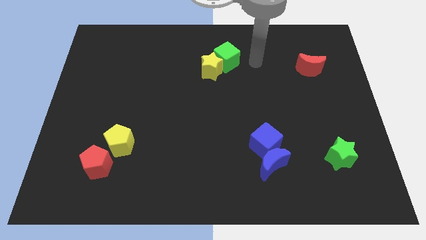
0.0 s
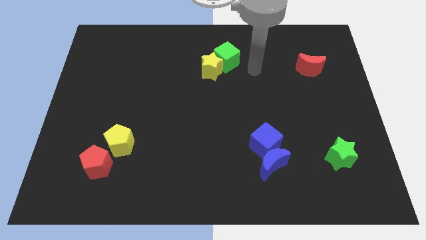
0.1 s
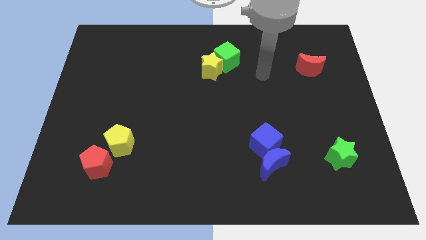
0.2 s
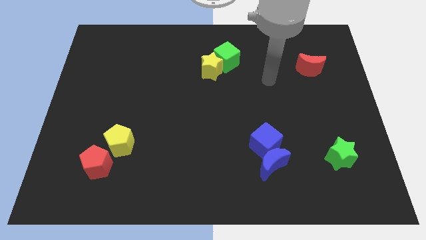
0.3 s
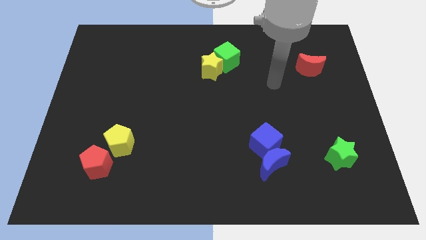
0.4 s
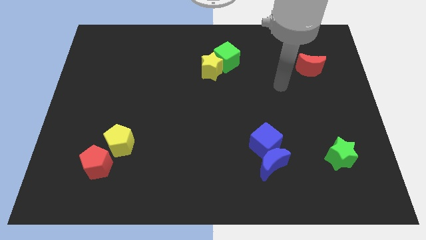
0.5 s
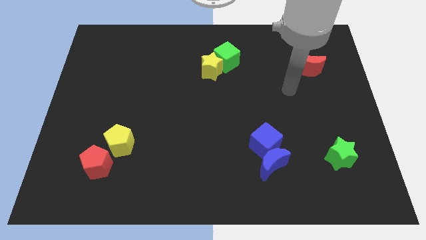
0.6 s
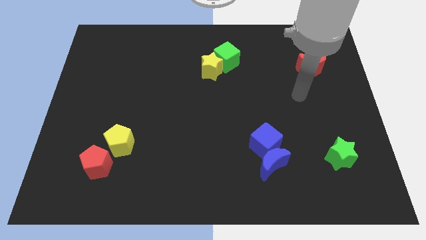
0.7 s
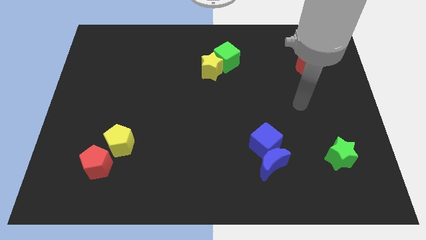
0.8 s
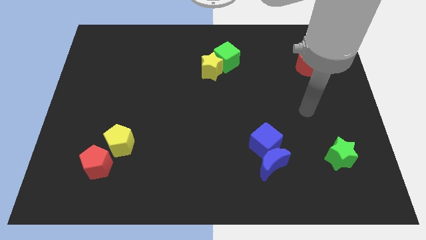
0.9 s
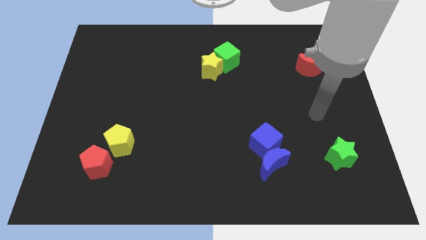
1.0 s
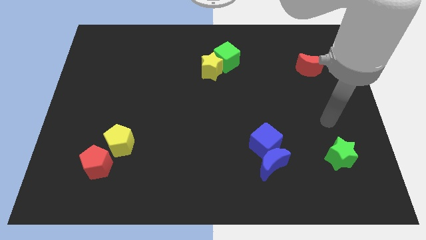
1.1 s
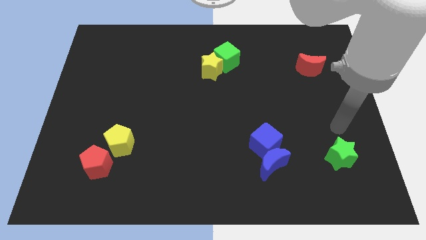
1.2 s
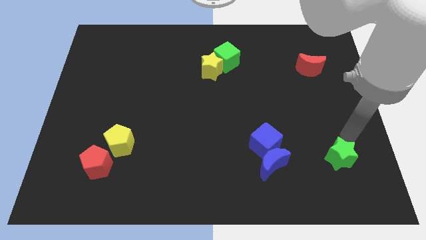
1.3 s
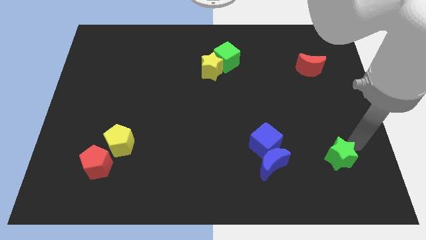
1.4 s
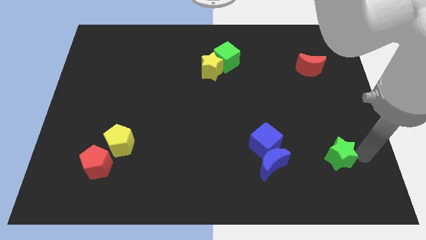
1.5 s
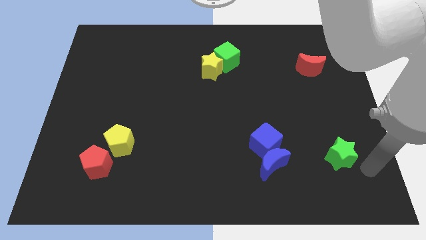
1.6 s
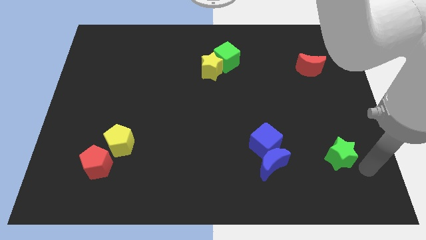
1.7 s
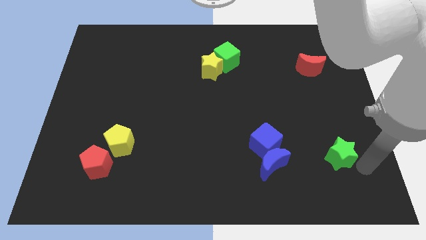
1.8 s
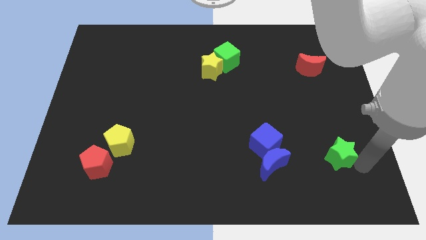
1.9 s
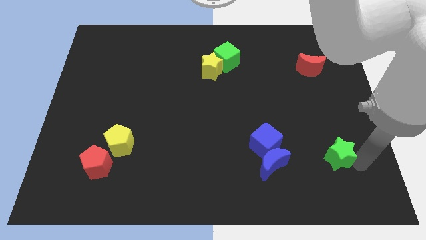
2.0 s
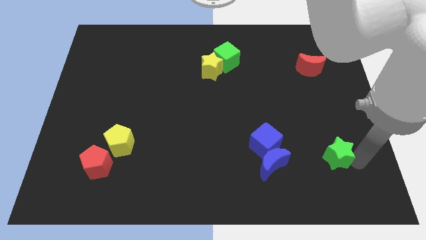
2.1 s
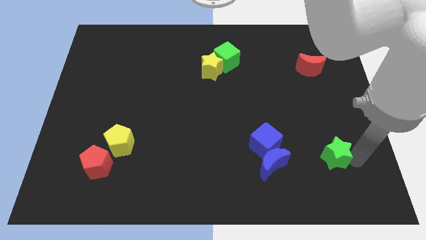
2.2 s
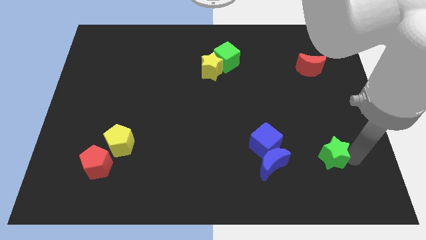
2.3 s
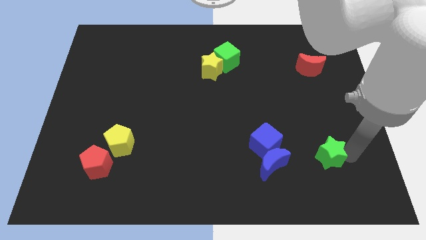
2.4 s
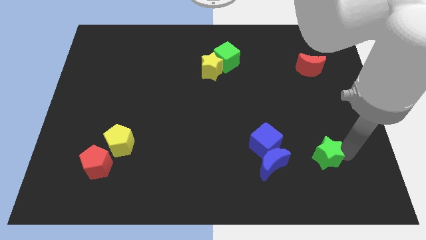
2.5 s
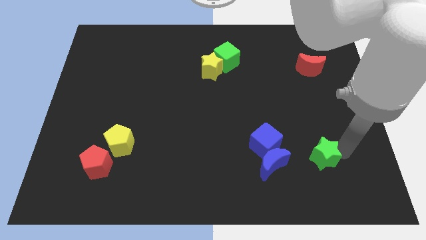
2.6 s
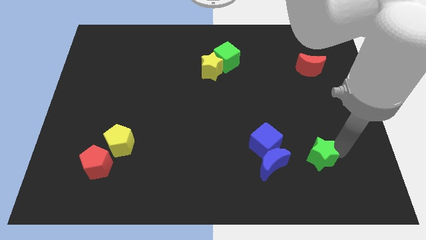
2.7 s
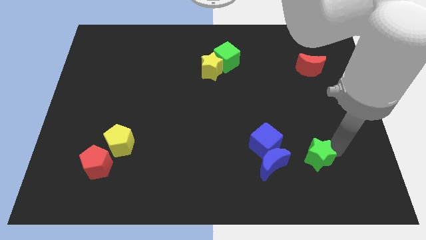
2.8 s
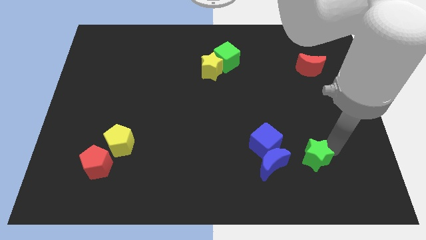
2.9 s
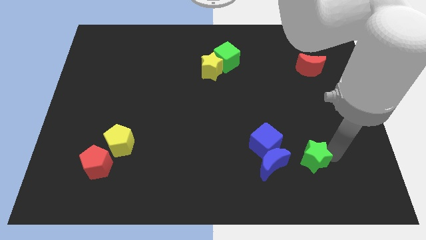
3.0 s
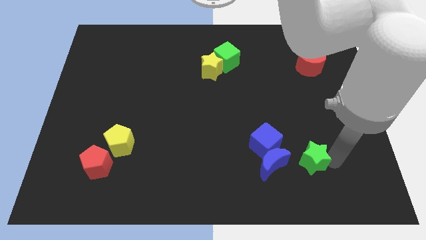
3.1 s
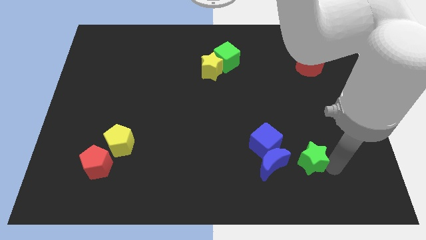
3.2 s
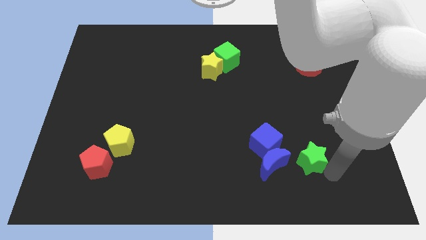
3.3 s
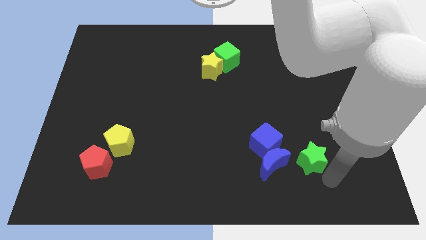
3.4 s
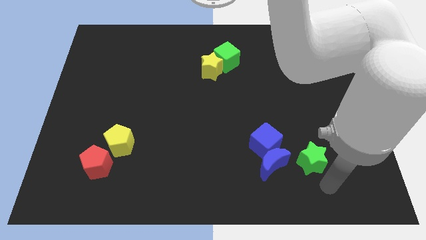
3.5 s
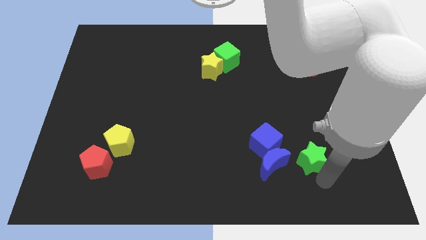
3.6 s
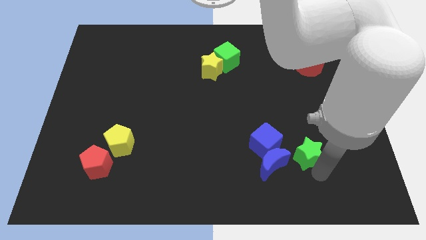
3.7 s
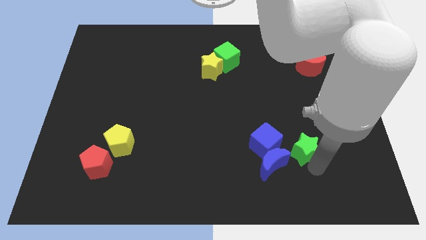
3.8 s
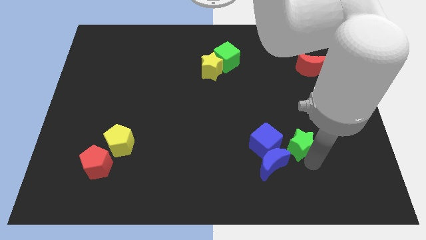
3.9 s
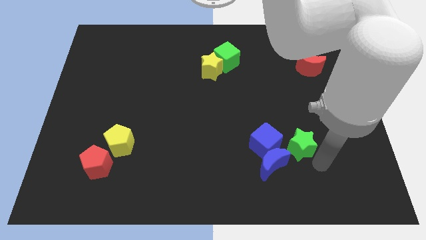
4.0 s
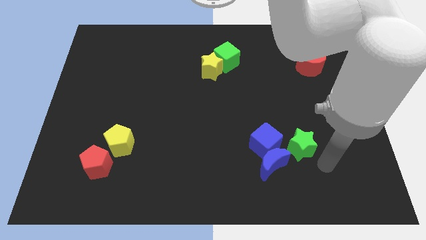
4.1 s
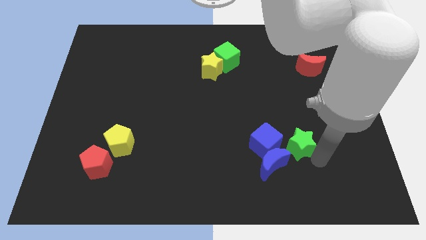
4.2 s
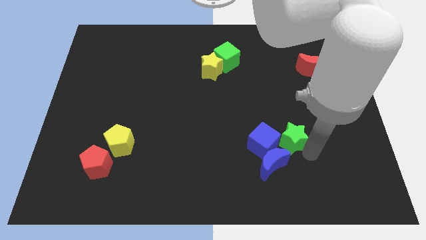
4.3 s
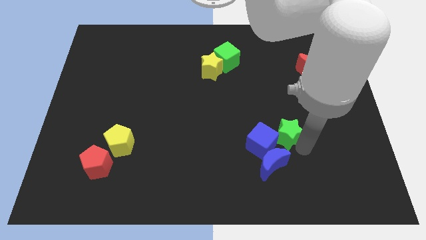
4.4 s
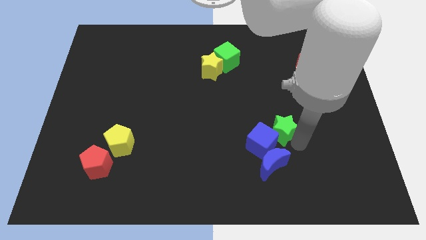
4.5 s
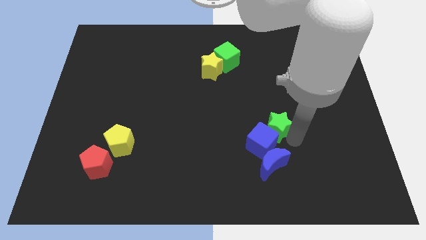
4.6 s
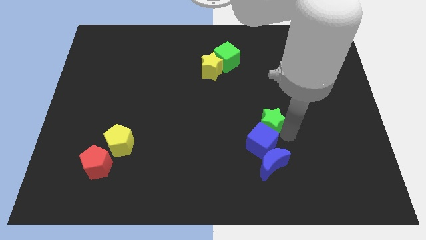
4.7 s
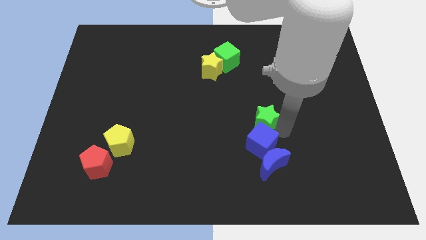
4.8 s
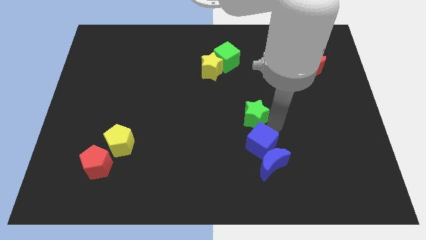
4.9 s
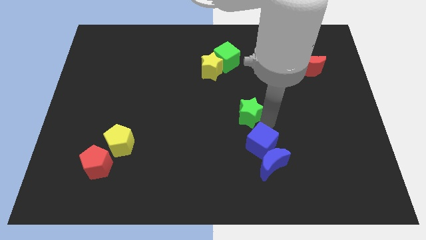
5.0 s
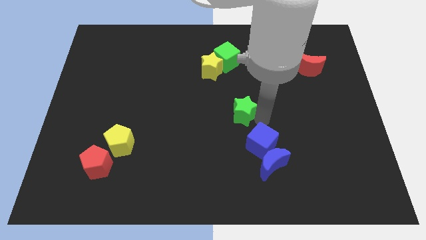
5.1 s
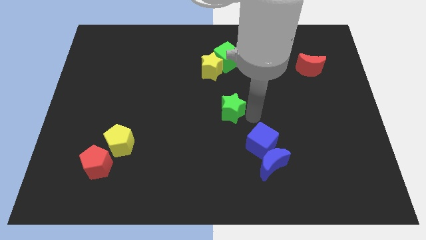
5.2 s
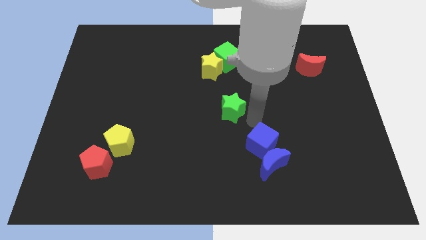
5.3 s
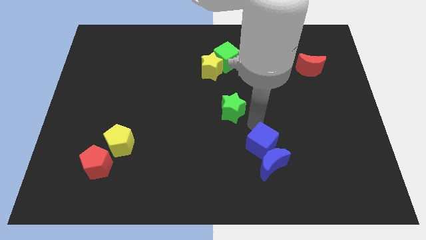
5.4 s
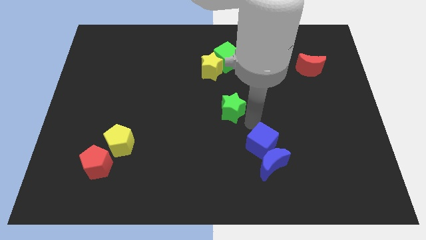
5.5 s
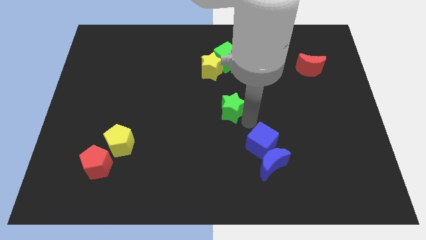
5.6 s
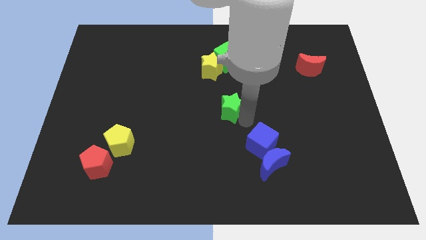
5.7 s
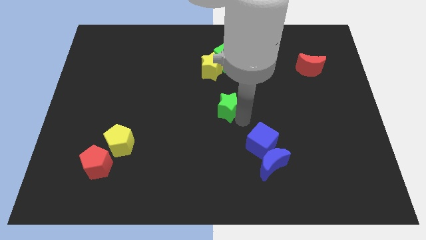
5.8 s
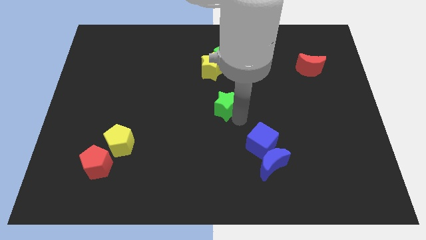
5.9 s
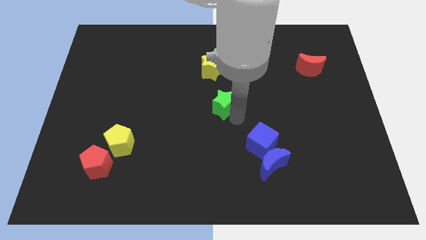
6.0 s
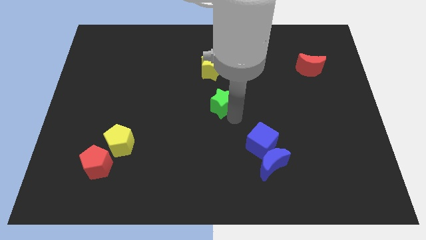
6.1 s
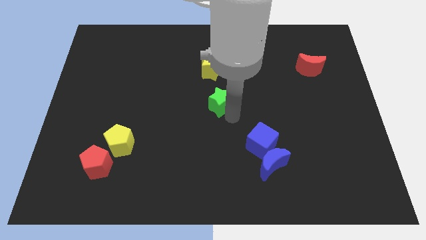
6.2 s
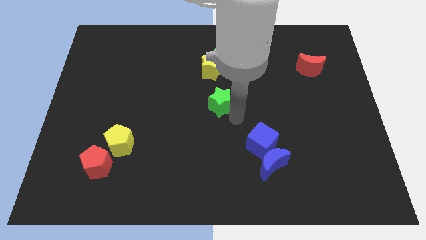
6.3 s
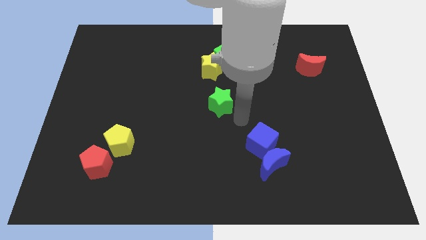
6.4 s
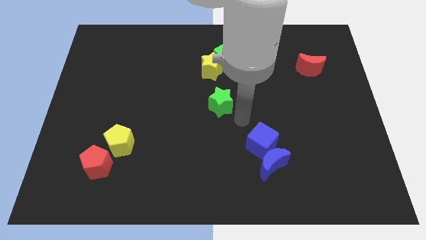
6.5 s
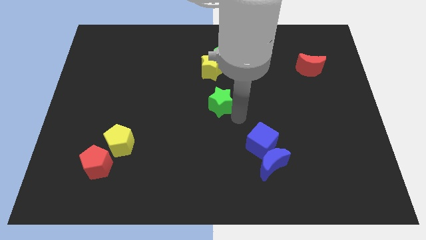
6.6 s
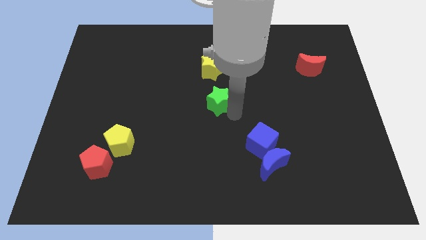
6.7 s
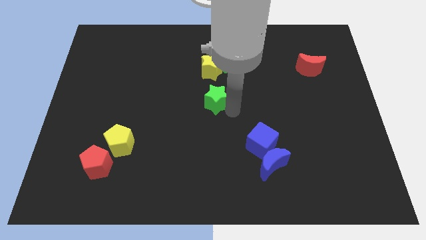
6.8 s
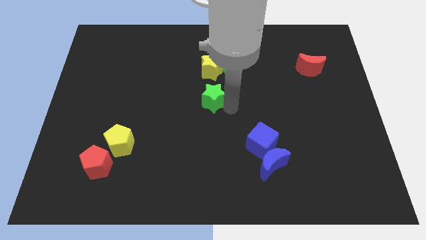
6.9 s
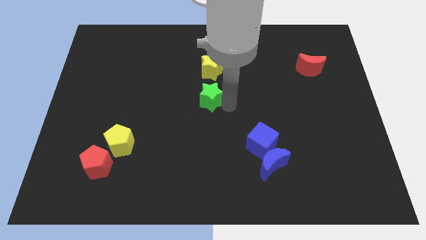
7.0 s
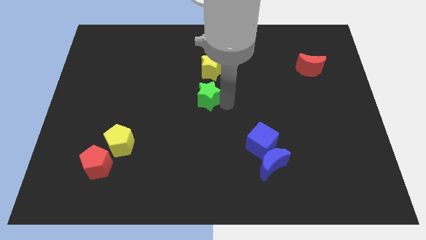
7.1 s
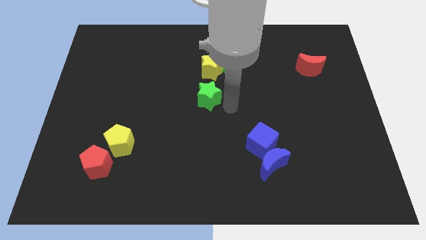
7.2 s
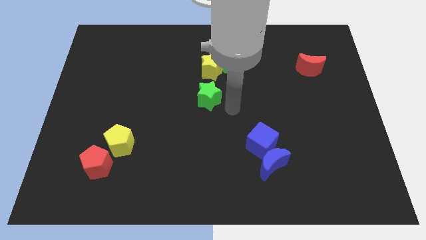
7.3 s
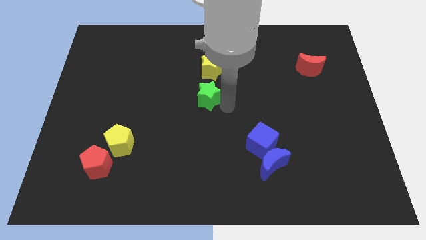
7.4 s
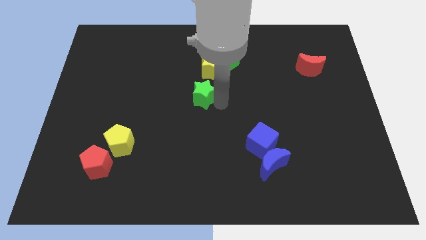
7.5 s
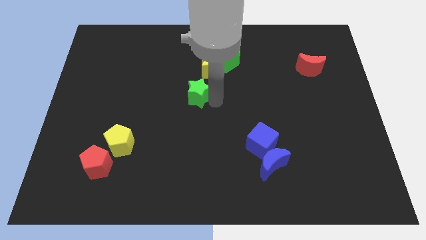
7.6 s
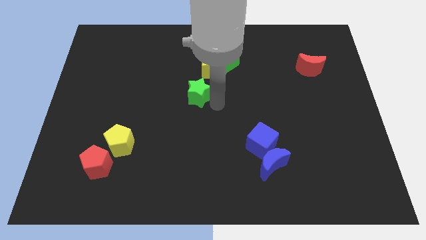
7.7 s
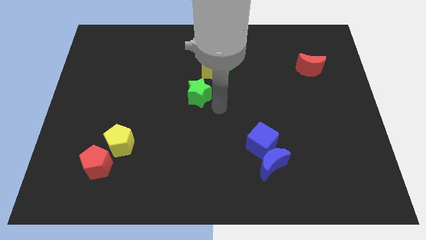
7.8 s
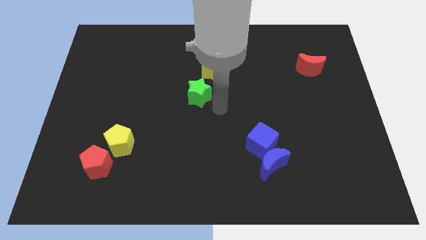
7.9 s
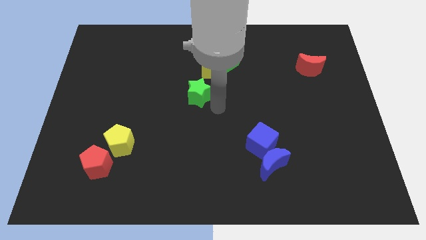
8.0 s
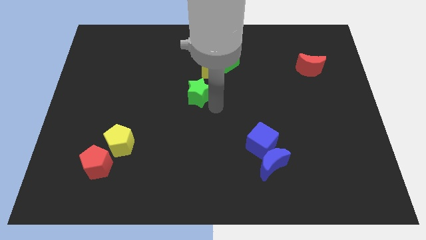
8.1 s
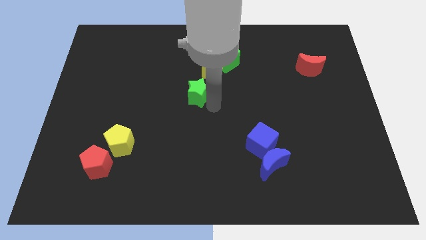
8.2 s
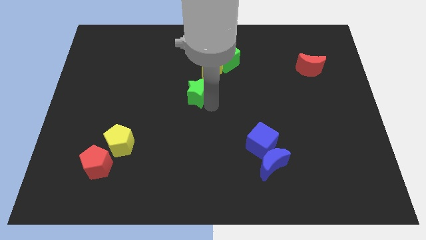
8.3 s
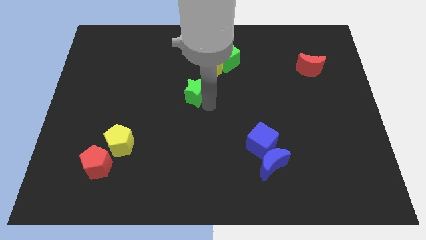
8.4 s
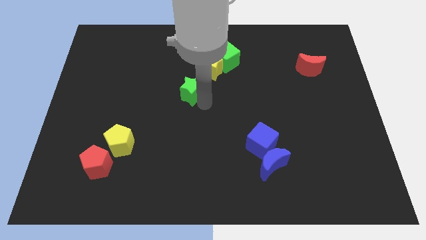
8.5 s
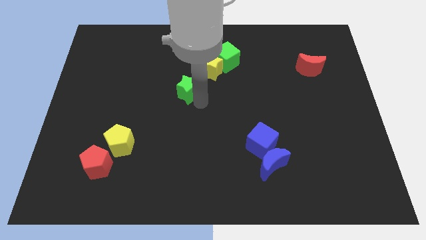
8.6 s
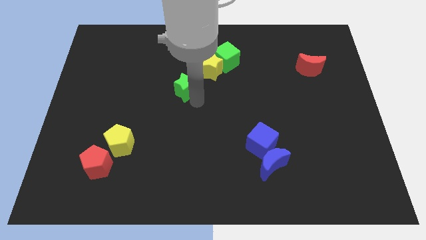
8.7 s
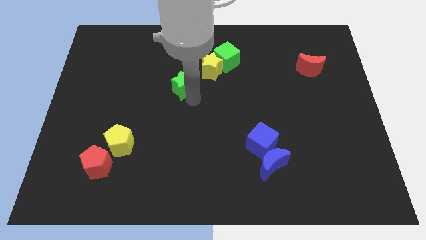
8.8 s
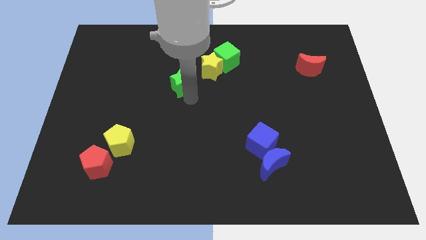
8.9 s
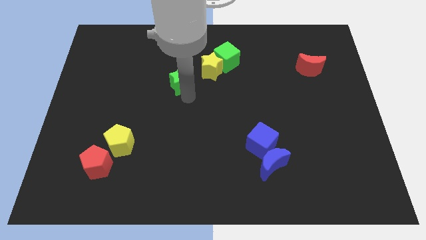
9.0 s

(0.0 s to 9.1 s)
move the green star to the left side of the yellow star
